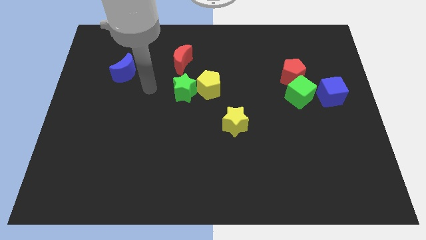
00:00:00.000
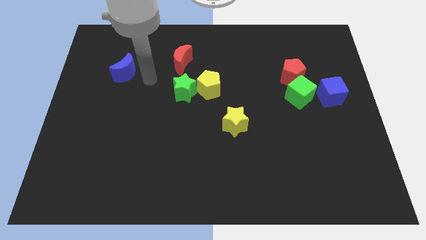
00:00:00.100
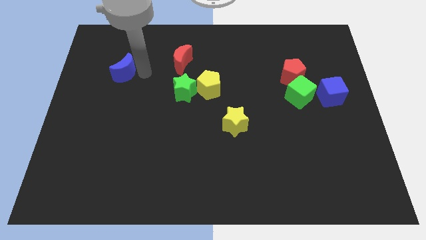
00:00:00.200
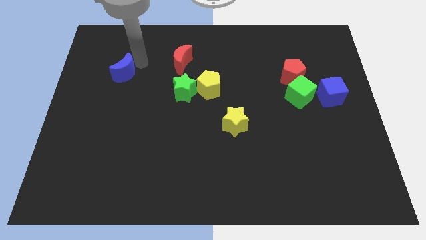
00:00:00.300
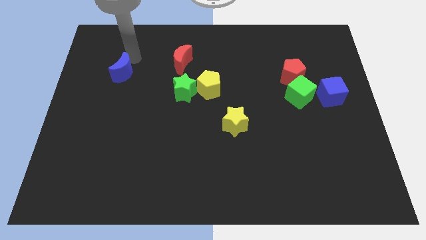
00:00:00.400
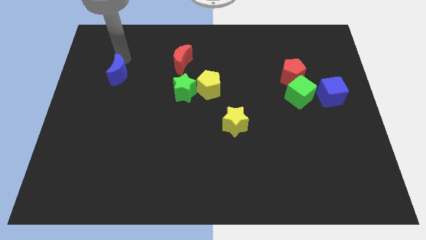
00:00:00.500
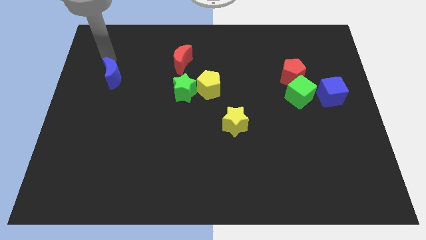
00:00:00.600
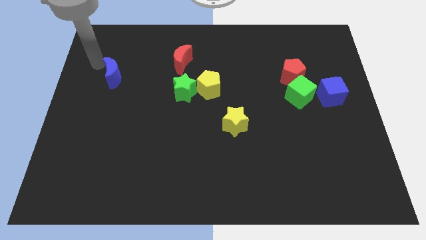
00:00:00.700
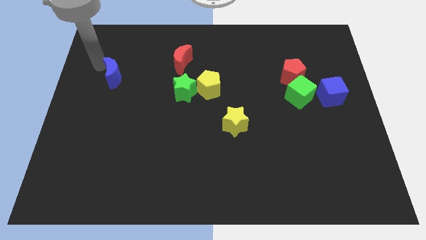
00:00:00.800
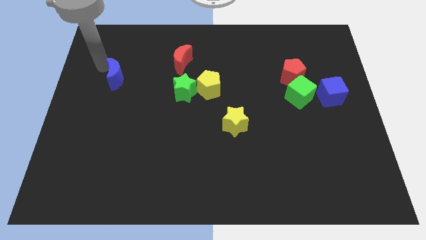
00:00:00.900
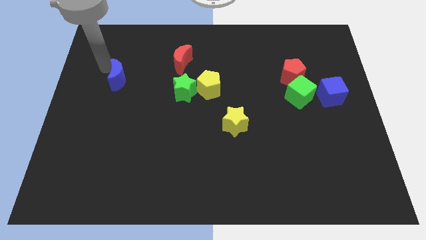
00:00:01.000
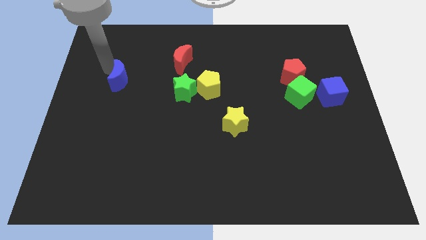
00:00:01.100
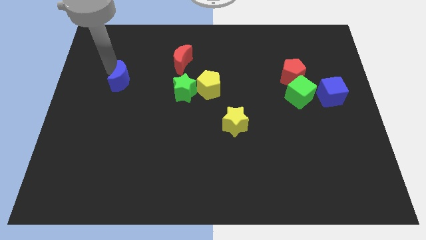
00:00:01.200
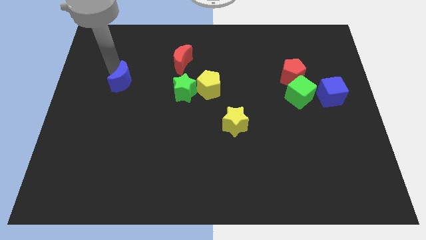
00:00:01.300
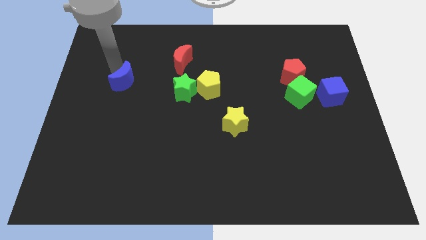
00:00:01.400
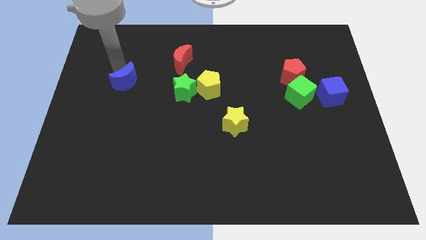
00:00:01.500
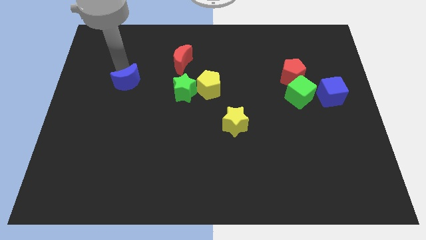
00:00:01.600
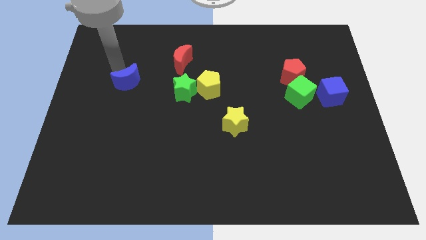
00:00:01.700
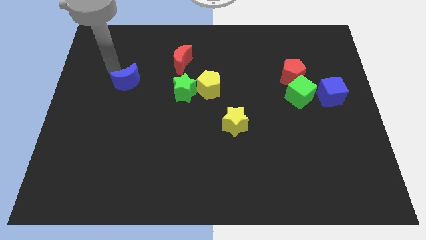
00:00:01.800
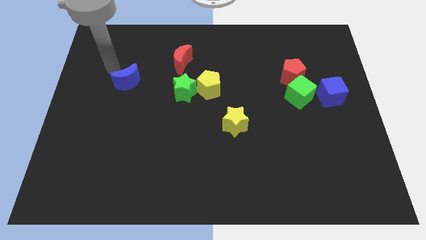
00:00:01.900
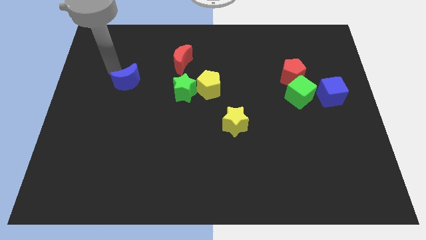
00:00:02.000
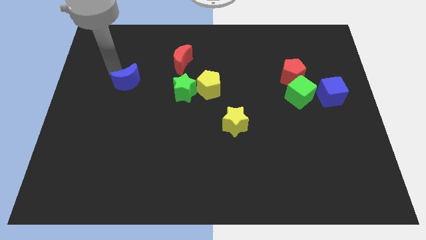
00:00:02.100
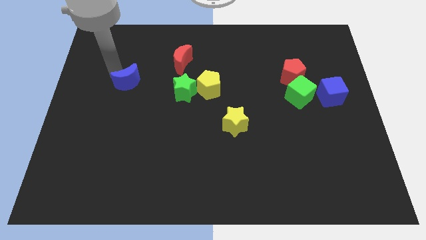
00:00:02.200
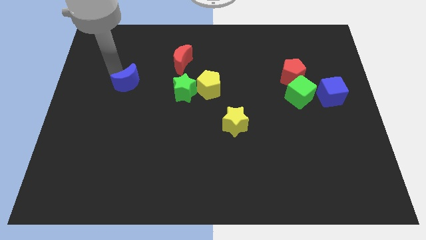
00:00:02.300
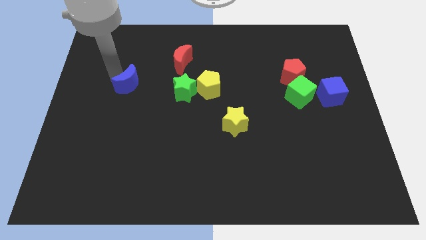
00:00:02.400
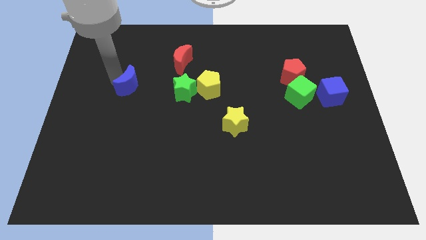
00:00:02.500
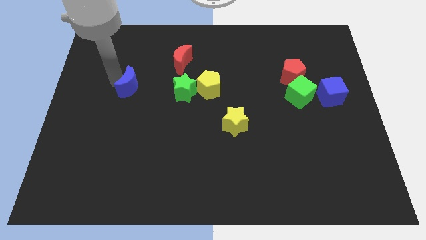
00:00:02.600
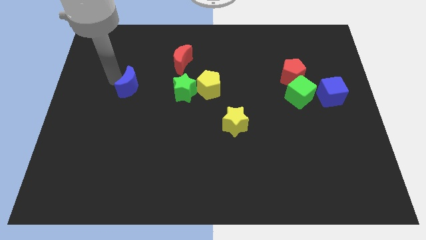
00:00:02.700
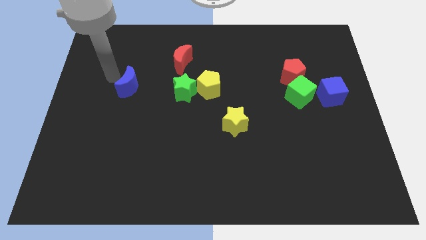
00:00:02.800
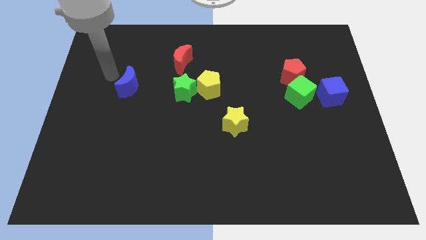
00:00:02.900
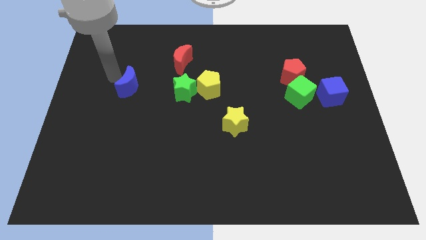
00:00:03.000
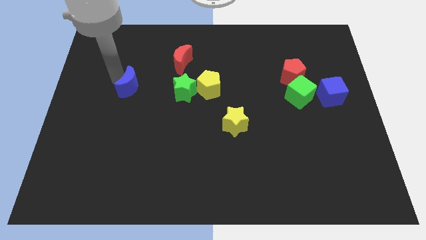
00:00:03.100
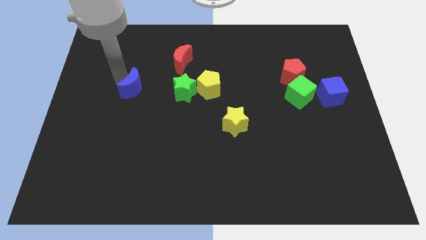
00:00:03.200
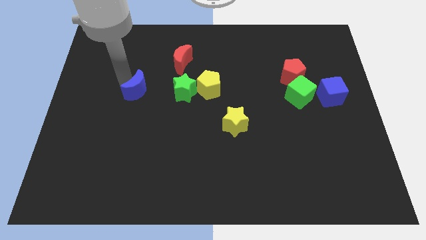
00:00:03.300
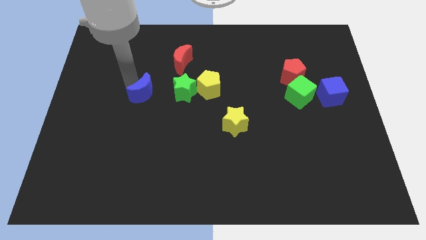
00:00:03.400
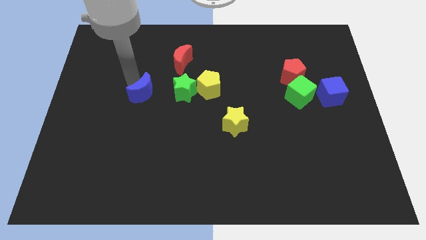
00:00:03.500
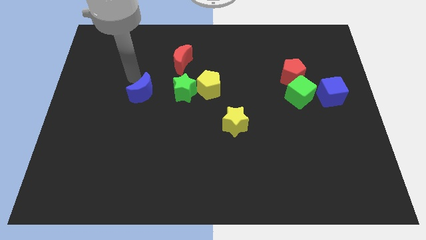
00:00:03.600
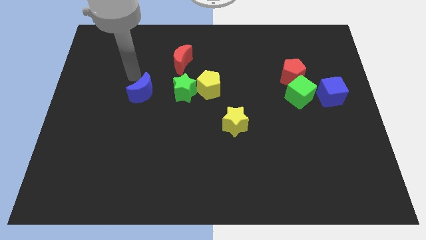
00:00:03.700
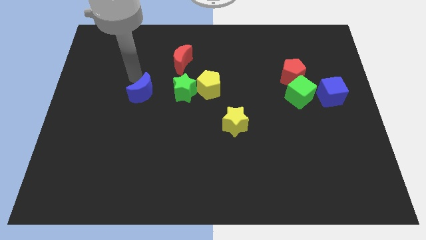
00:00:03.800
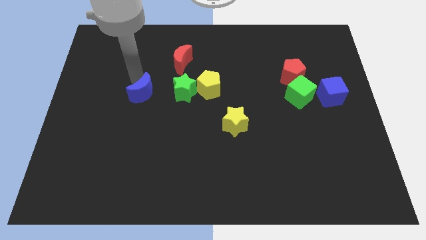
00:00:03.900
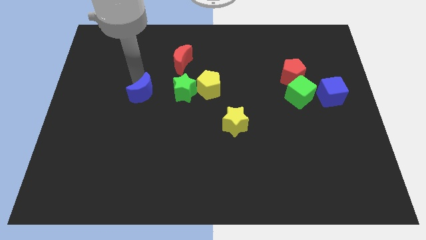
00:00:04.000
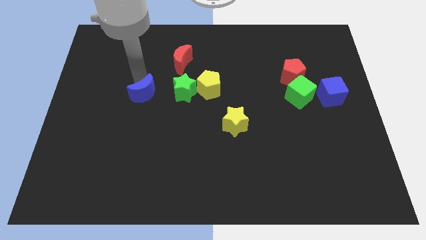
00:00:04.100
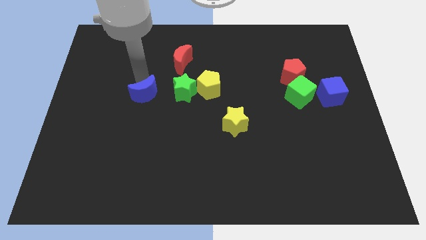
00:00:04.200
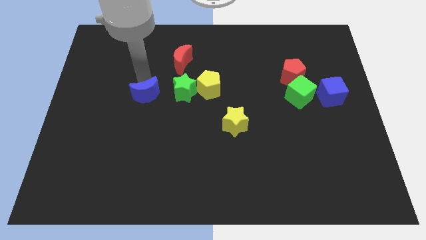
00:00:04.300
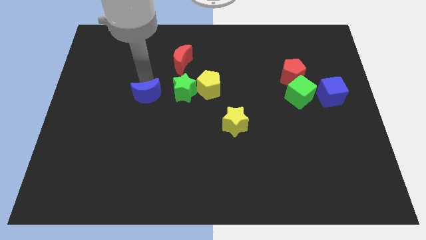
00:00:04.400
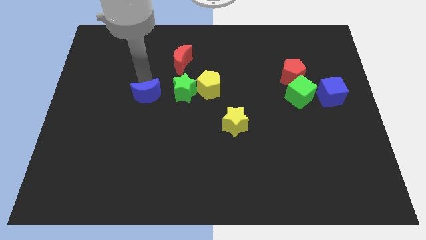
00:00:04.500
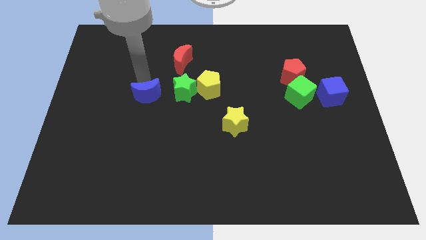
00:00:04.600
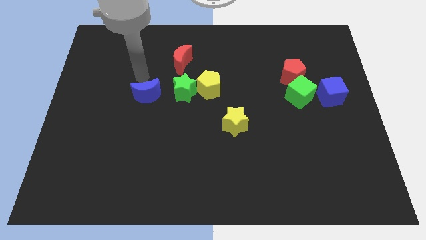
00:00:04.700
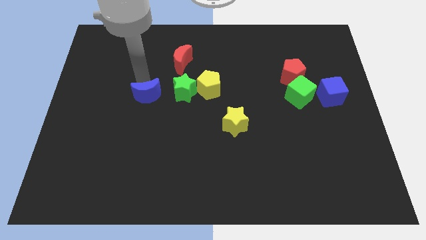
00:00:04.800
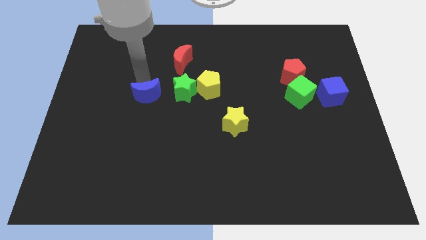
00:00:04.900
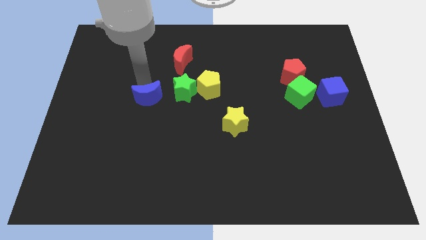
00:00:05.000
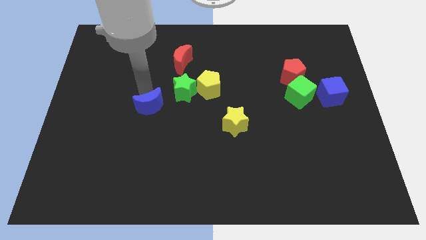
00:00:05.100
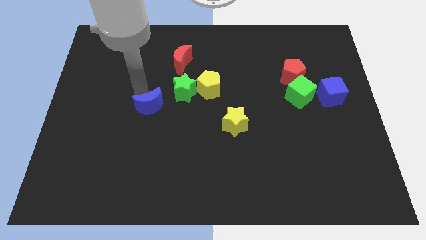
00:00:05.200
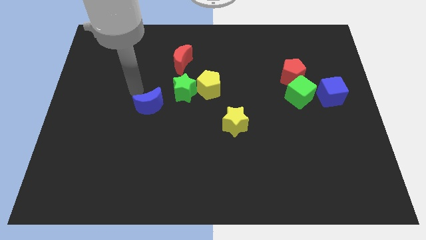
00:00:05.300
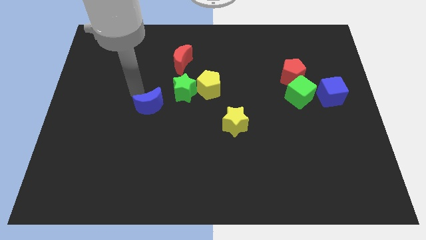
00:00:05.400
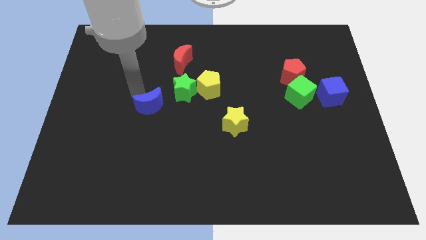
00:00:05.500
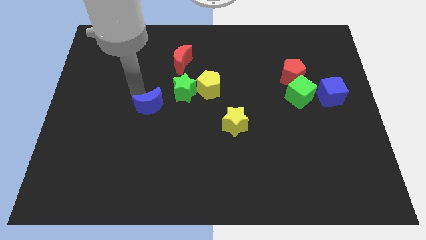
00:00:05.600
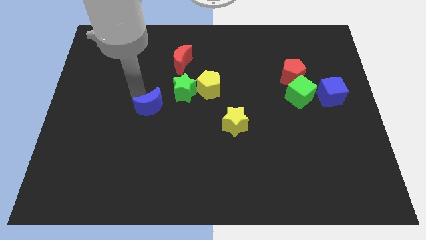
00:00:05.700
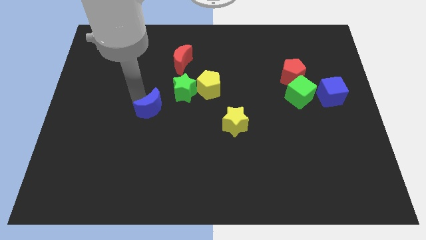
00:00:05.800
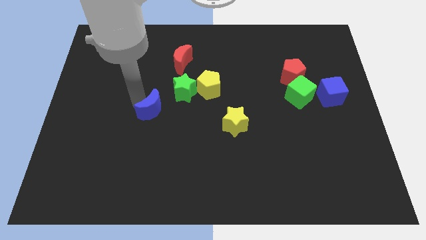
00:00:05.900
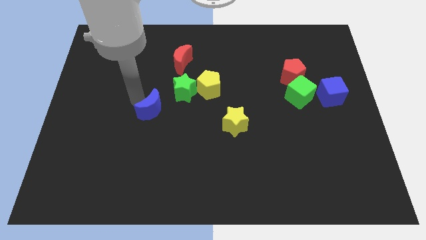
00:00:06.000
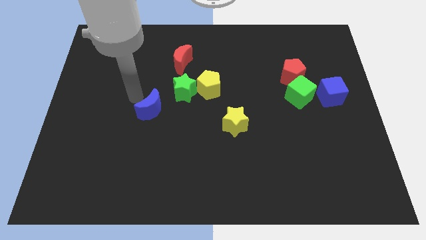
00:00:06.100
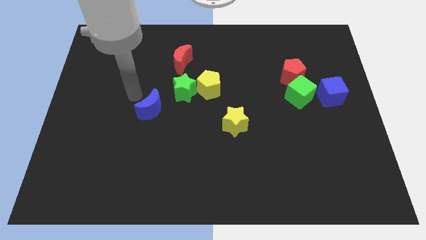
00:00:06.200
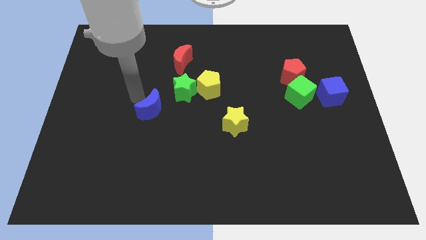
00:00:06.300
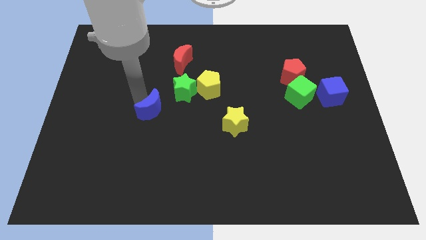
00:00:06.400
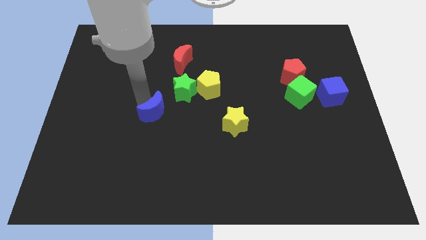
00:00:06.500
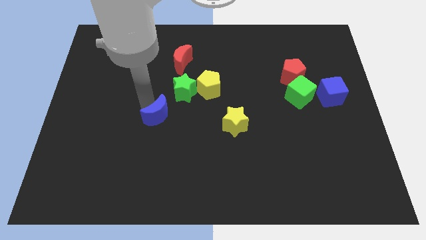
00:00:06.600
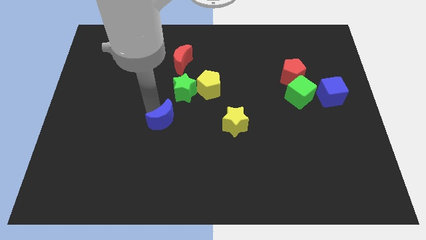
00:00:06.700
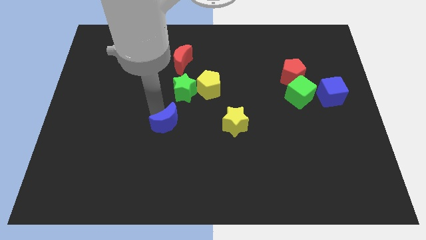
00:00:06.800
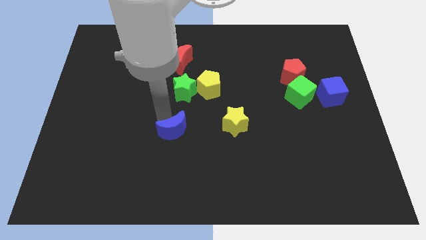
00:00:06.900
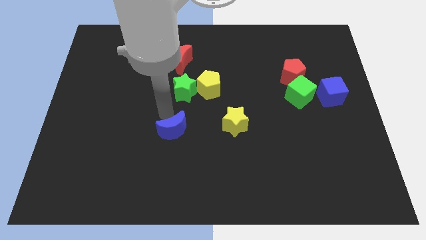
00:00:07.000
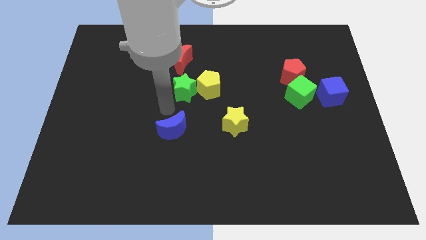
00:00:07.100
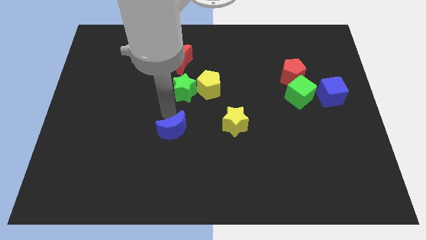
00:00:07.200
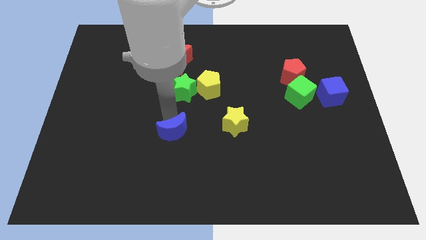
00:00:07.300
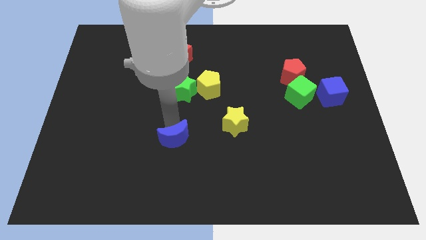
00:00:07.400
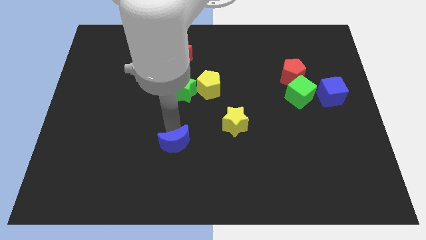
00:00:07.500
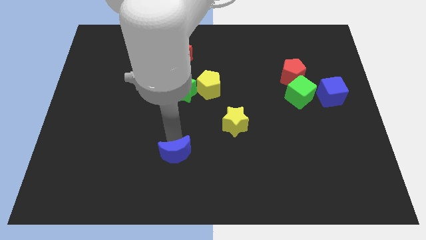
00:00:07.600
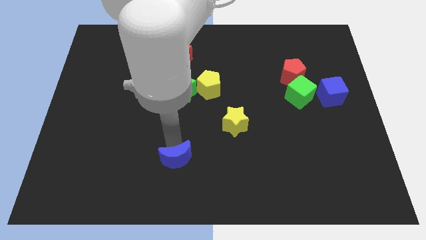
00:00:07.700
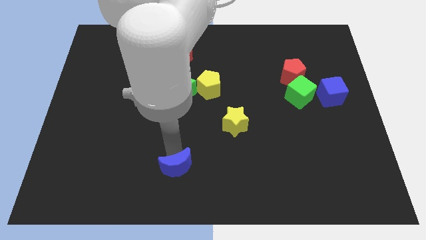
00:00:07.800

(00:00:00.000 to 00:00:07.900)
push the blue moon to the bottom side

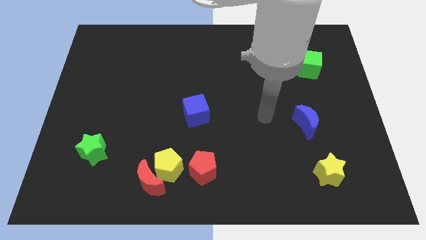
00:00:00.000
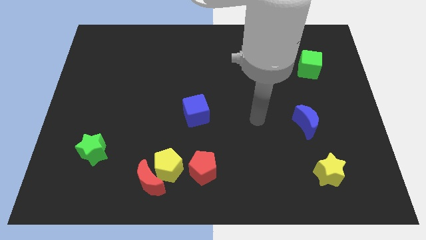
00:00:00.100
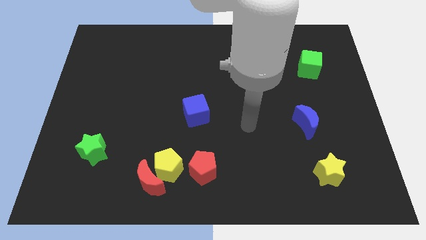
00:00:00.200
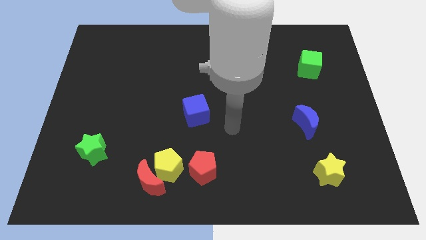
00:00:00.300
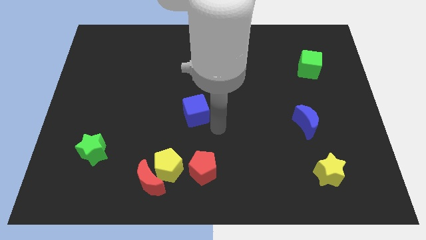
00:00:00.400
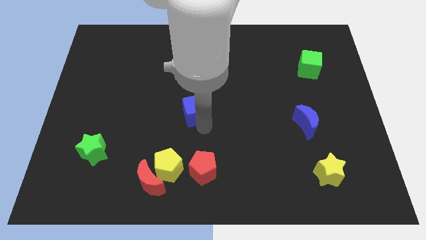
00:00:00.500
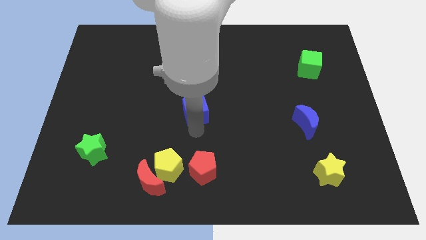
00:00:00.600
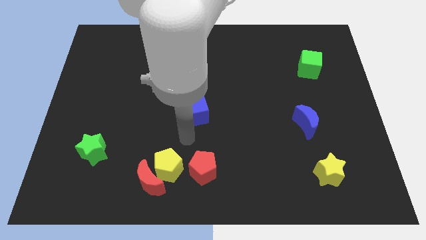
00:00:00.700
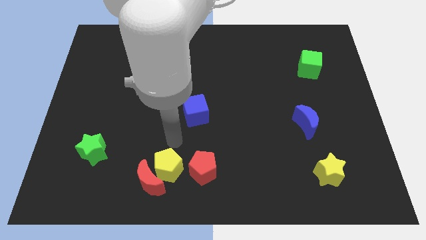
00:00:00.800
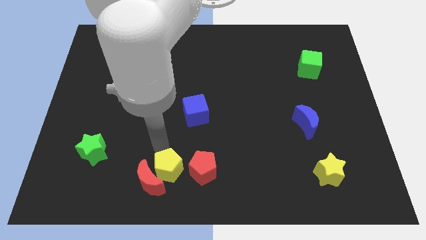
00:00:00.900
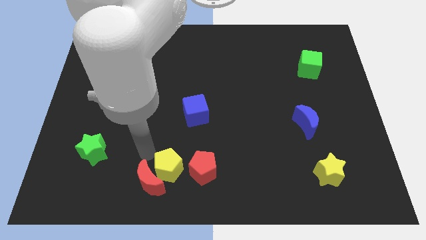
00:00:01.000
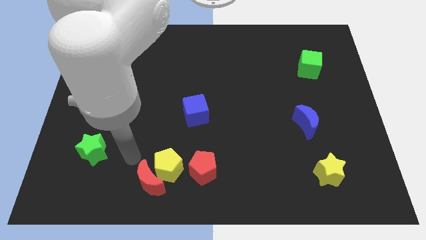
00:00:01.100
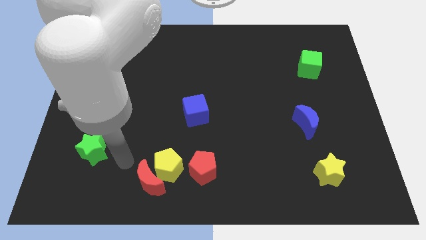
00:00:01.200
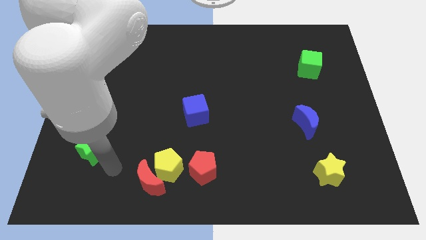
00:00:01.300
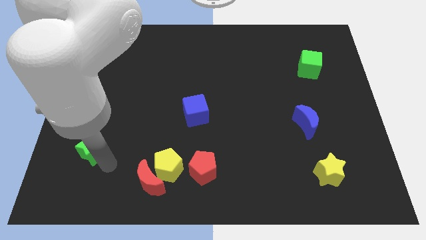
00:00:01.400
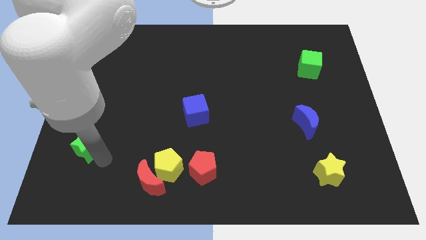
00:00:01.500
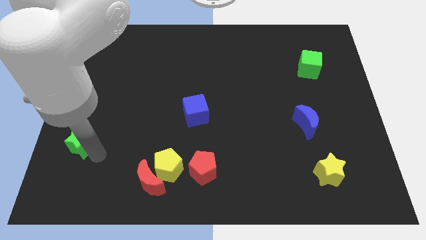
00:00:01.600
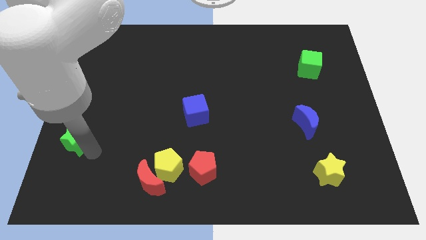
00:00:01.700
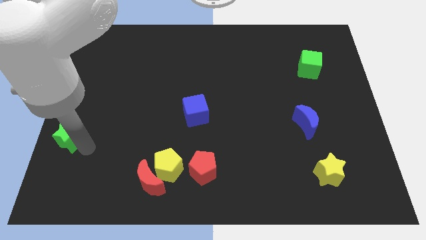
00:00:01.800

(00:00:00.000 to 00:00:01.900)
push the green star to the left side of the board
